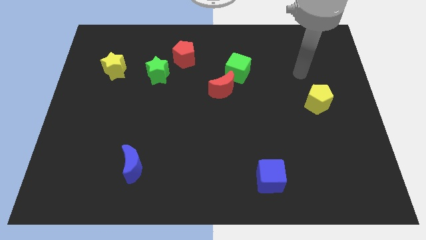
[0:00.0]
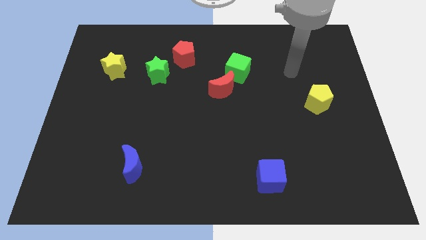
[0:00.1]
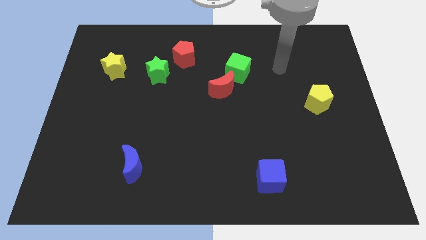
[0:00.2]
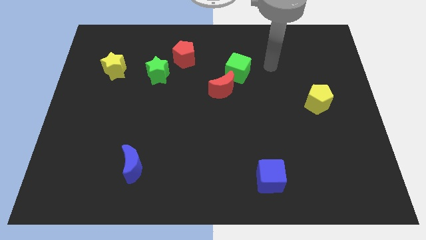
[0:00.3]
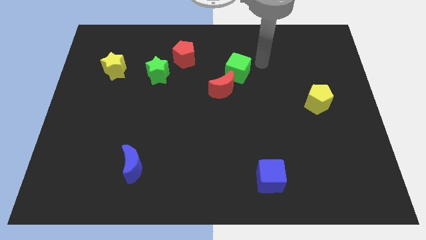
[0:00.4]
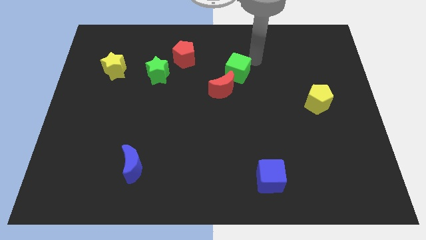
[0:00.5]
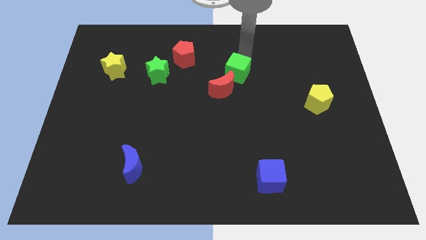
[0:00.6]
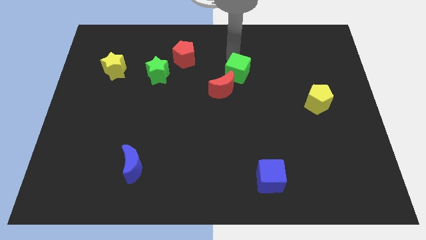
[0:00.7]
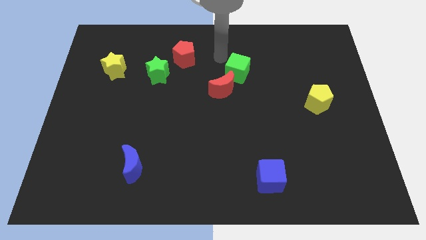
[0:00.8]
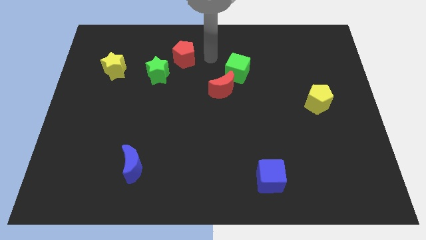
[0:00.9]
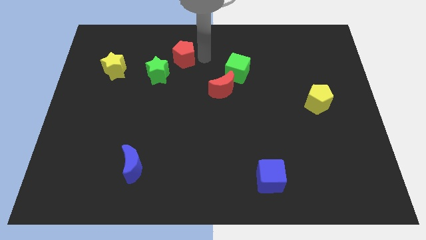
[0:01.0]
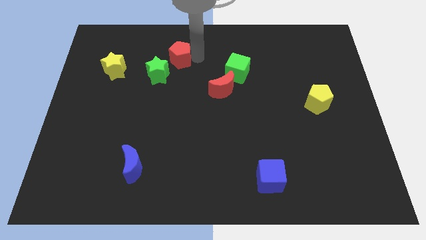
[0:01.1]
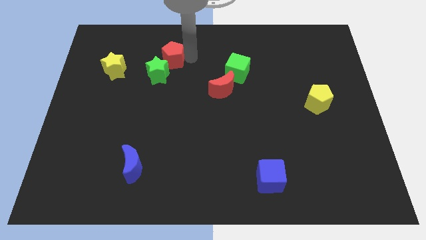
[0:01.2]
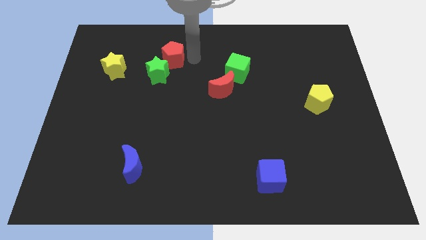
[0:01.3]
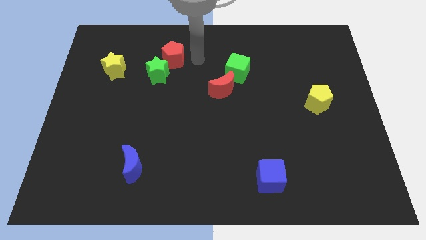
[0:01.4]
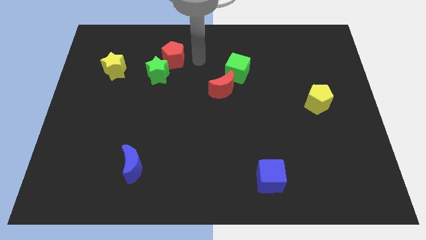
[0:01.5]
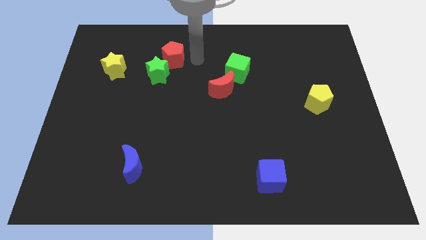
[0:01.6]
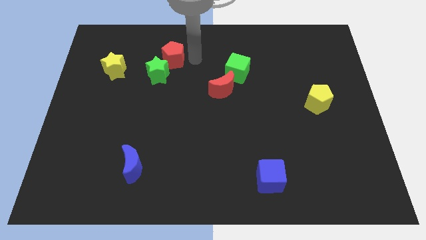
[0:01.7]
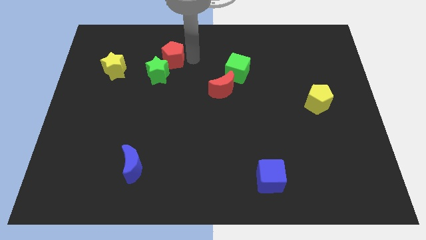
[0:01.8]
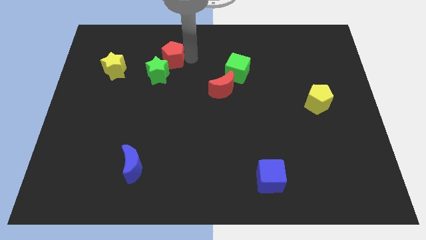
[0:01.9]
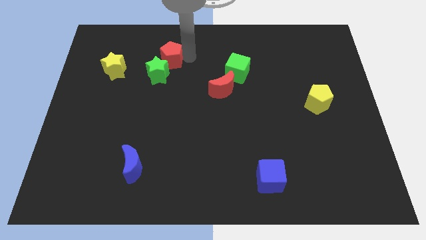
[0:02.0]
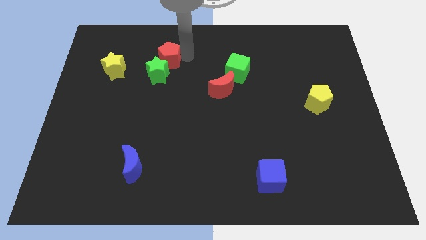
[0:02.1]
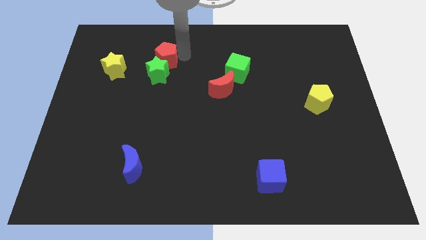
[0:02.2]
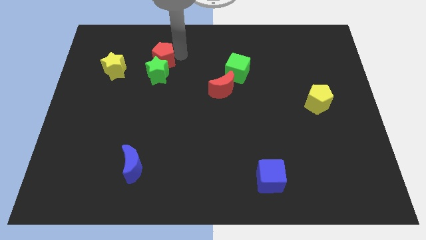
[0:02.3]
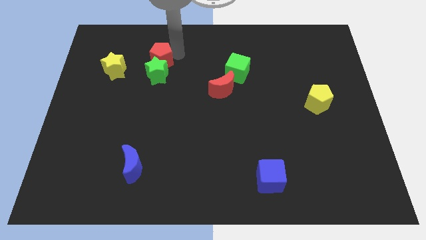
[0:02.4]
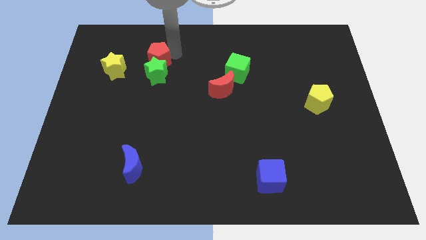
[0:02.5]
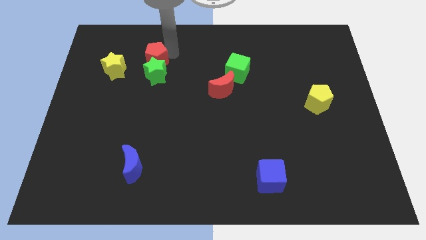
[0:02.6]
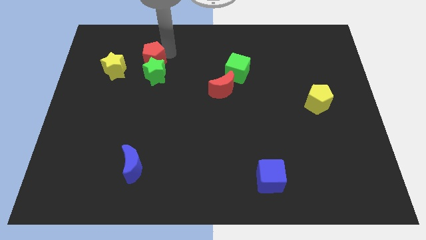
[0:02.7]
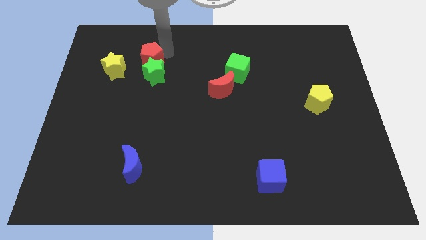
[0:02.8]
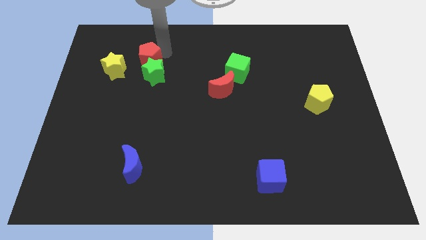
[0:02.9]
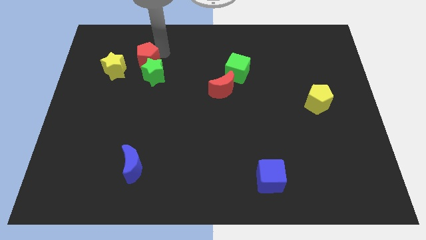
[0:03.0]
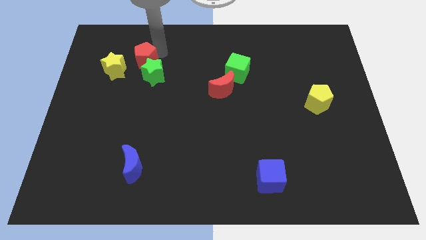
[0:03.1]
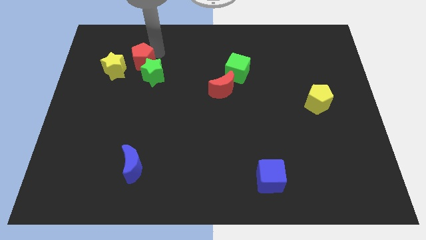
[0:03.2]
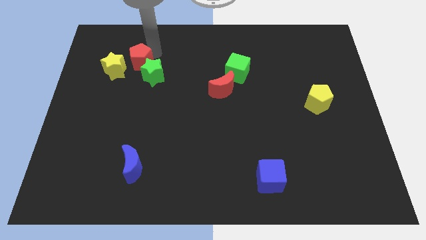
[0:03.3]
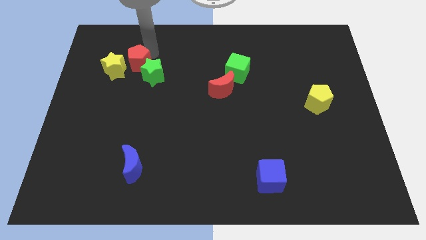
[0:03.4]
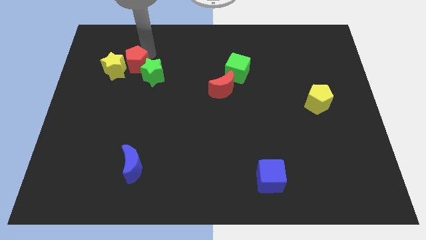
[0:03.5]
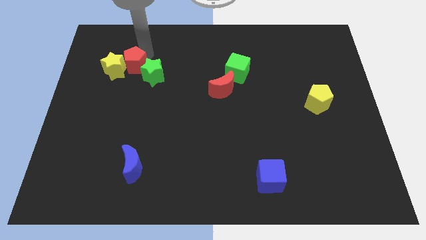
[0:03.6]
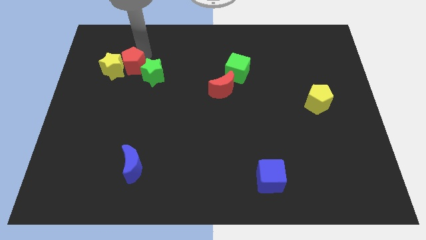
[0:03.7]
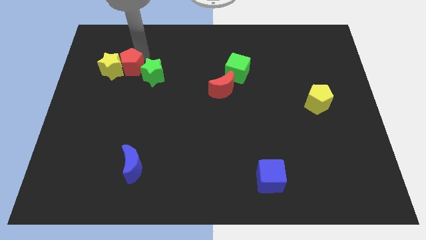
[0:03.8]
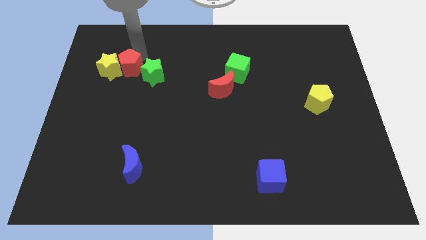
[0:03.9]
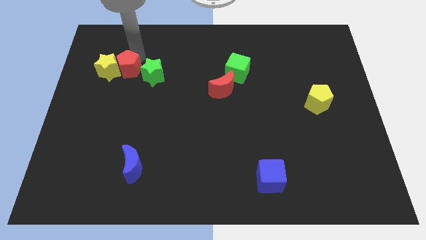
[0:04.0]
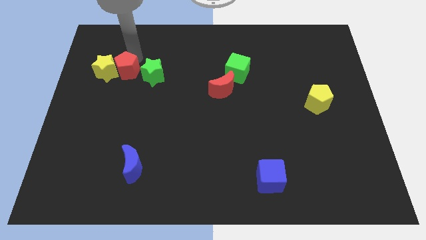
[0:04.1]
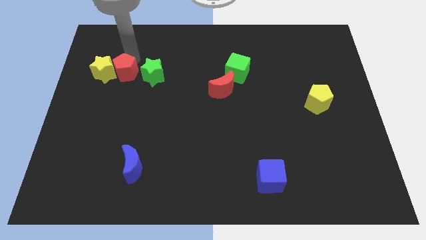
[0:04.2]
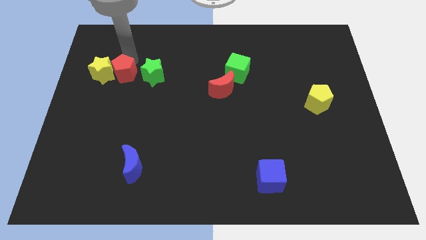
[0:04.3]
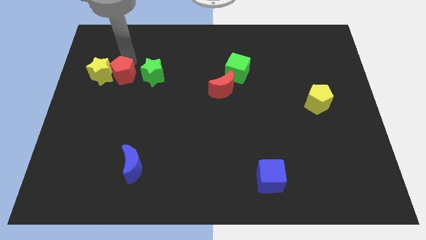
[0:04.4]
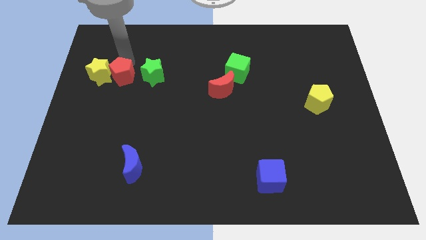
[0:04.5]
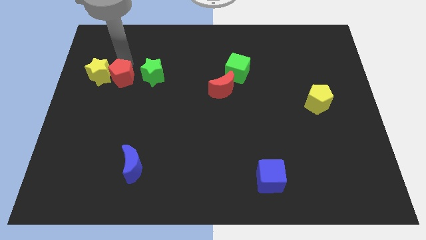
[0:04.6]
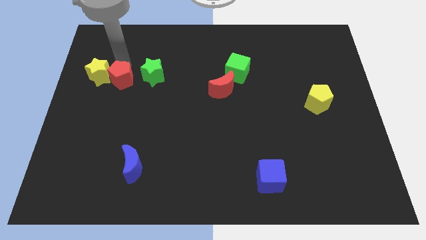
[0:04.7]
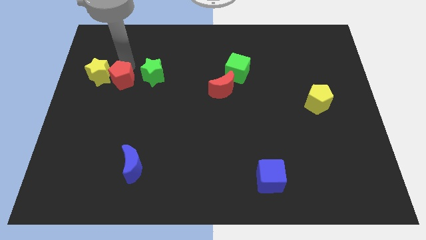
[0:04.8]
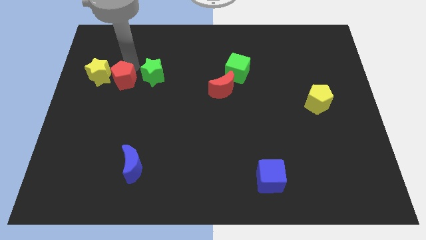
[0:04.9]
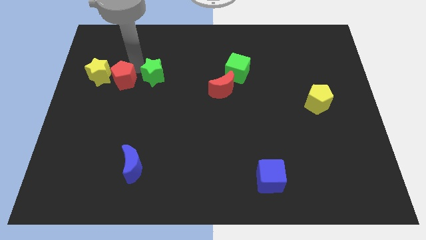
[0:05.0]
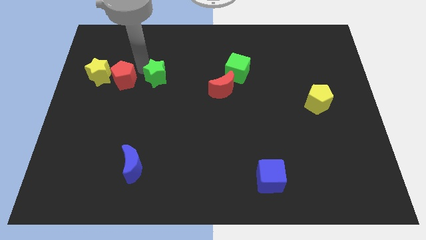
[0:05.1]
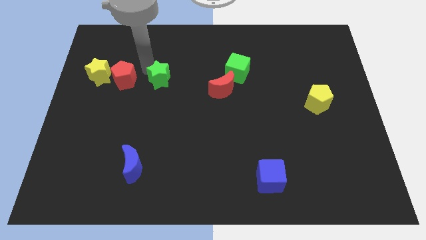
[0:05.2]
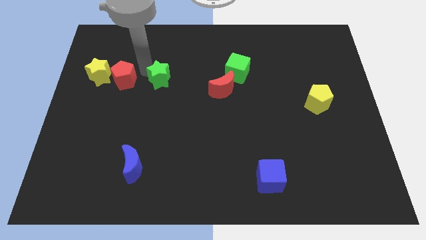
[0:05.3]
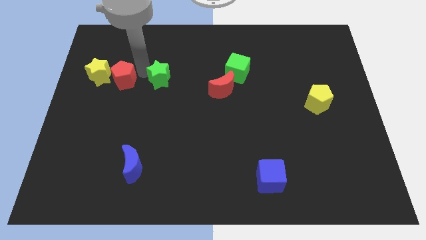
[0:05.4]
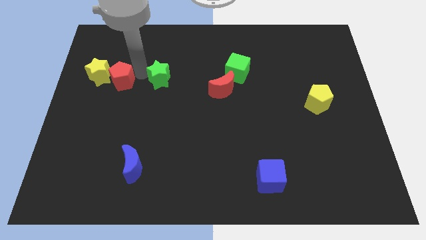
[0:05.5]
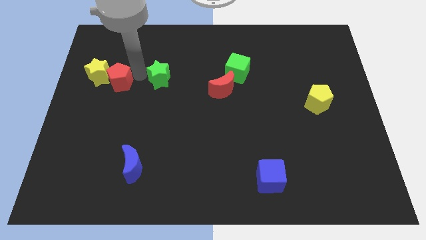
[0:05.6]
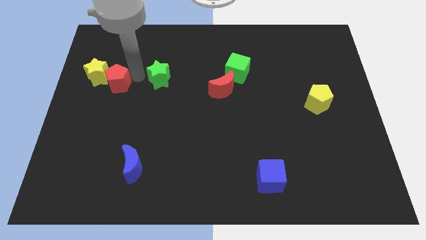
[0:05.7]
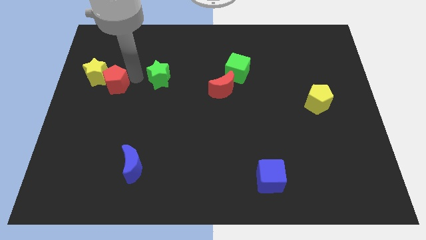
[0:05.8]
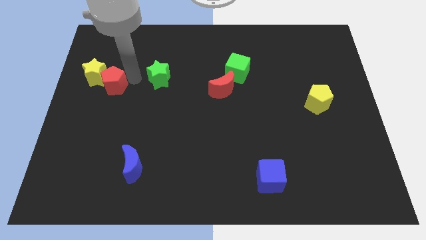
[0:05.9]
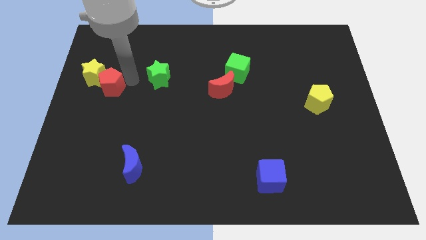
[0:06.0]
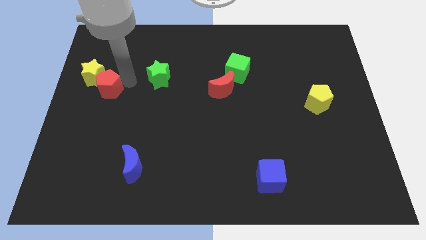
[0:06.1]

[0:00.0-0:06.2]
put the red pentagon to the center left

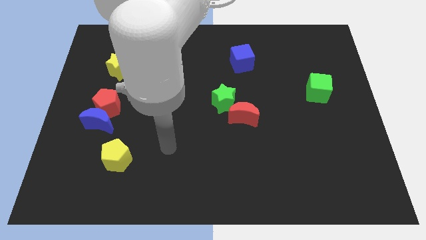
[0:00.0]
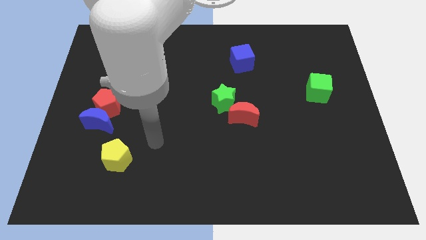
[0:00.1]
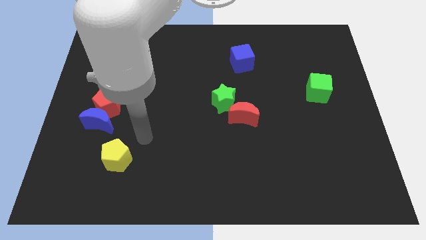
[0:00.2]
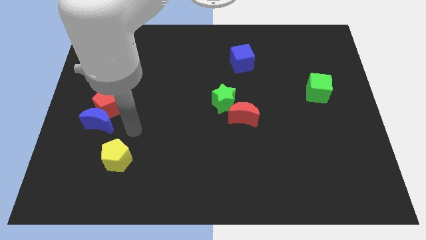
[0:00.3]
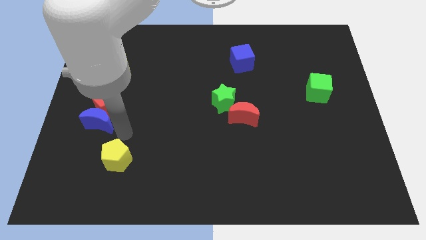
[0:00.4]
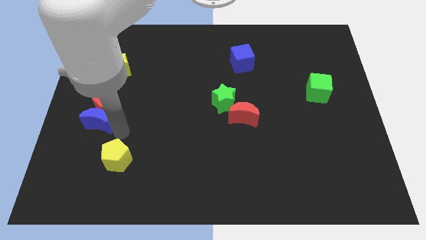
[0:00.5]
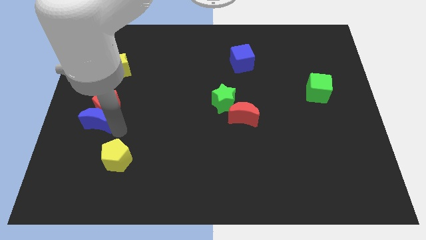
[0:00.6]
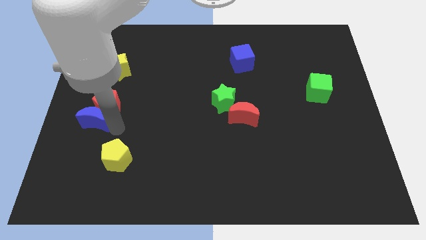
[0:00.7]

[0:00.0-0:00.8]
put the blue moon to the left side
